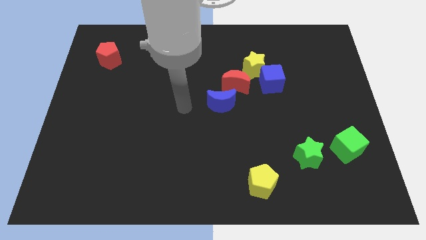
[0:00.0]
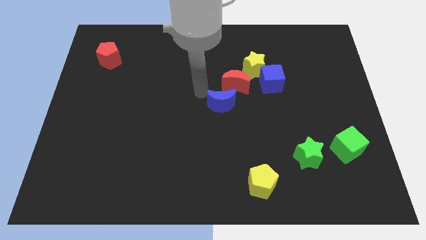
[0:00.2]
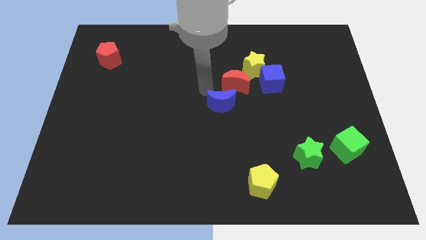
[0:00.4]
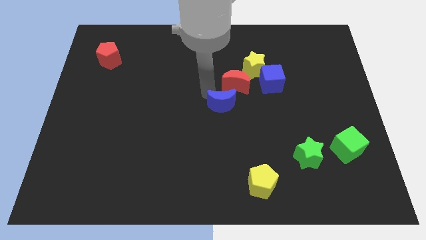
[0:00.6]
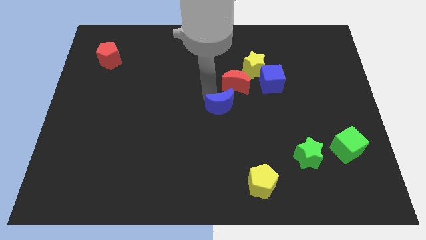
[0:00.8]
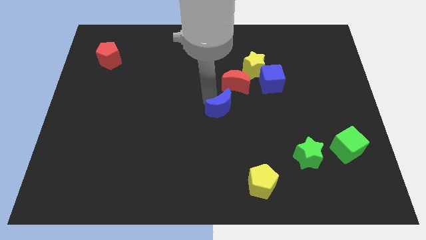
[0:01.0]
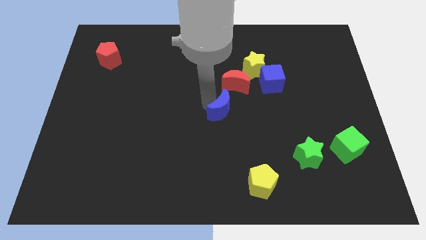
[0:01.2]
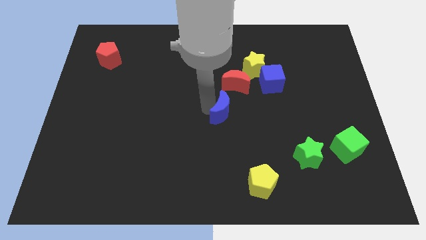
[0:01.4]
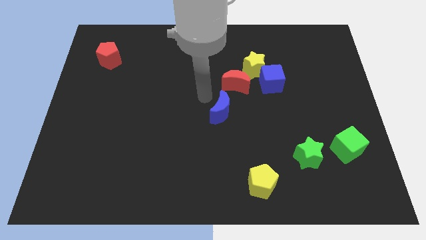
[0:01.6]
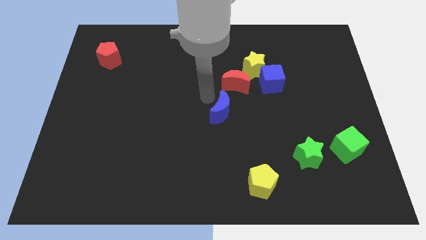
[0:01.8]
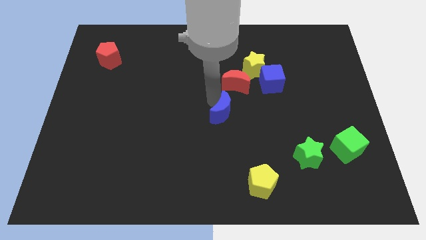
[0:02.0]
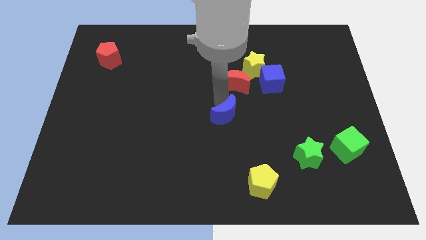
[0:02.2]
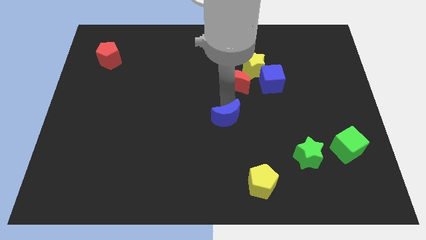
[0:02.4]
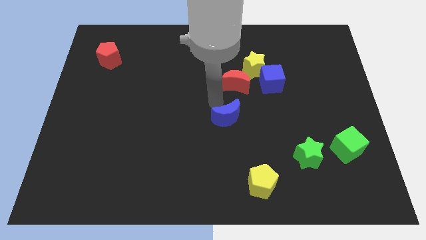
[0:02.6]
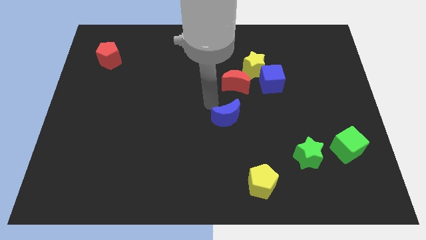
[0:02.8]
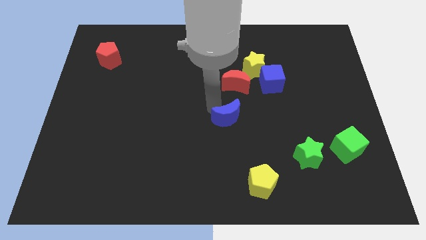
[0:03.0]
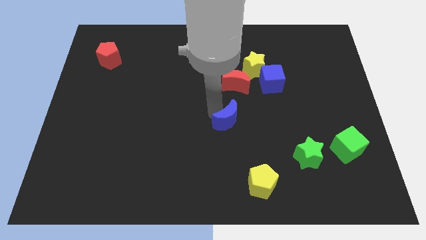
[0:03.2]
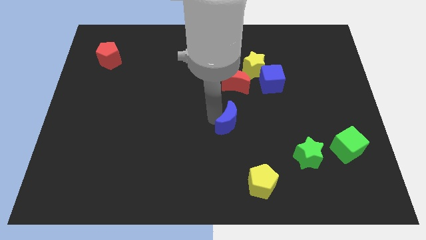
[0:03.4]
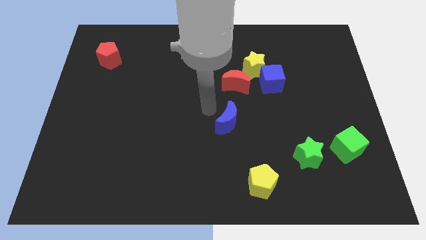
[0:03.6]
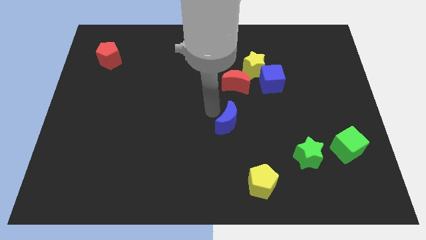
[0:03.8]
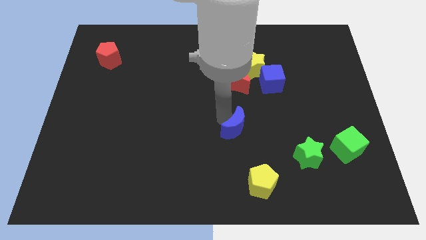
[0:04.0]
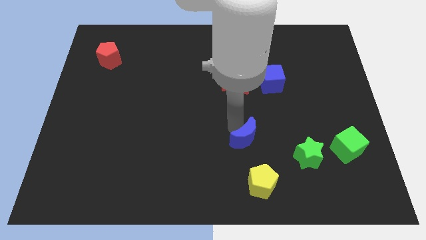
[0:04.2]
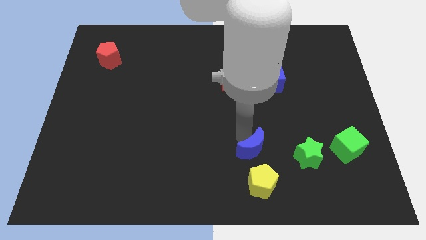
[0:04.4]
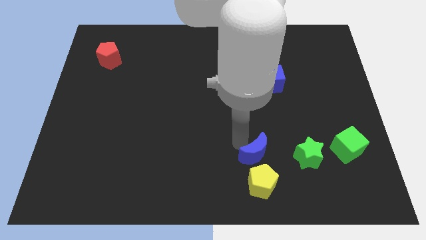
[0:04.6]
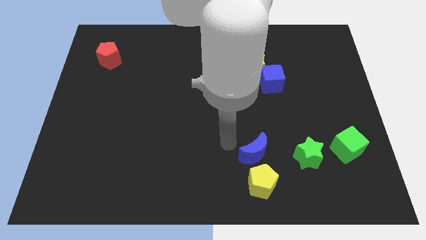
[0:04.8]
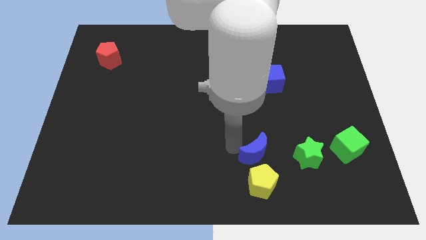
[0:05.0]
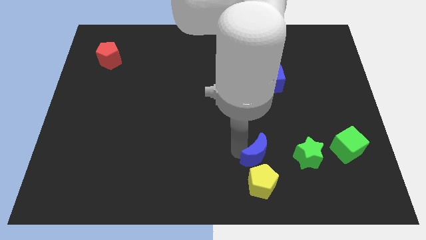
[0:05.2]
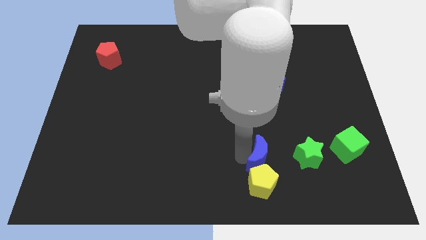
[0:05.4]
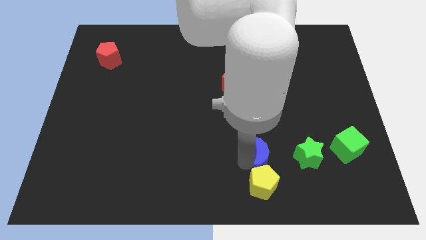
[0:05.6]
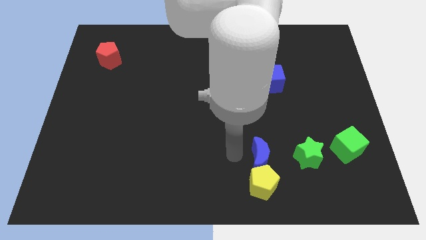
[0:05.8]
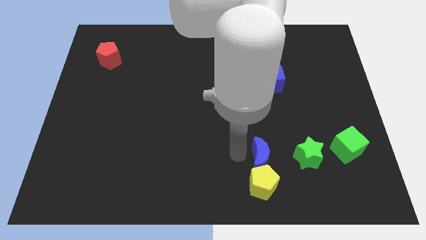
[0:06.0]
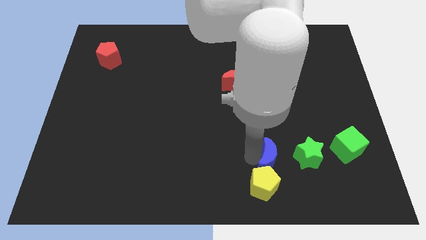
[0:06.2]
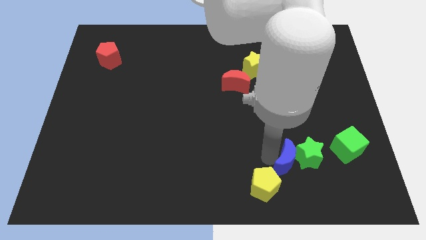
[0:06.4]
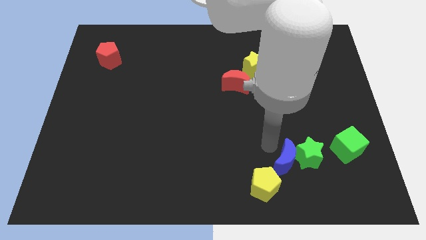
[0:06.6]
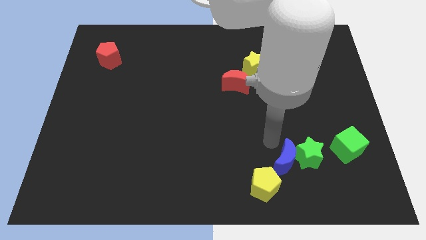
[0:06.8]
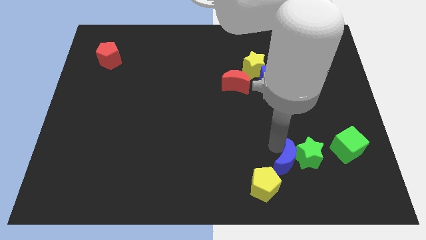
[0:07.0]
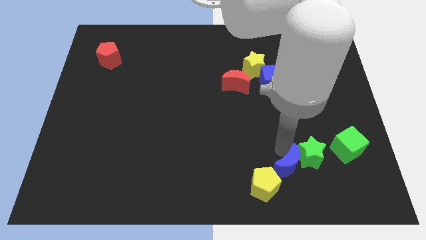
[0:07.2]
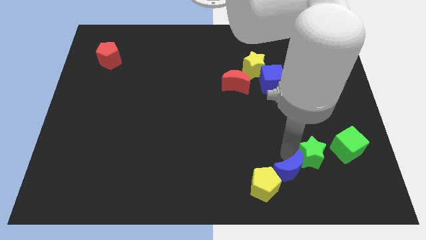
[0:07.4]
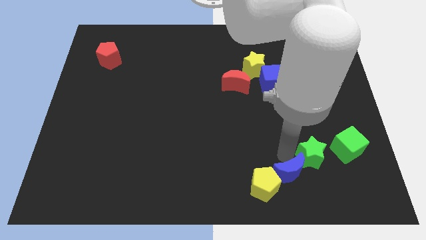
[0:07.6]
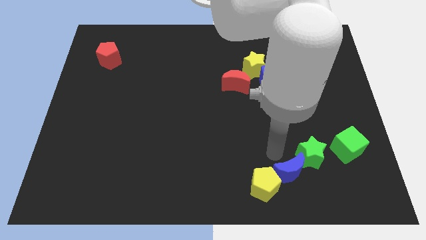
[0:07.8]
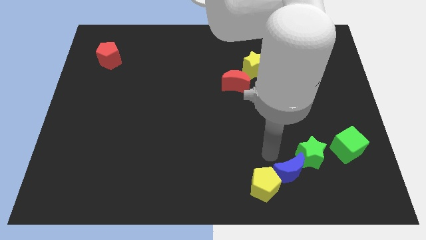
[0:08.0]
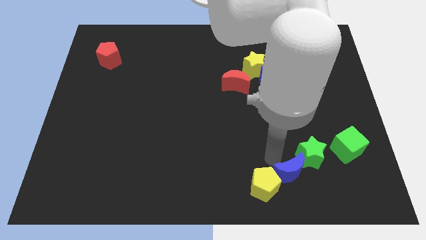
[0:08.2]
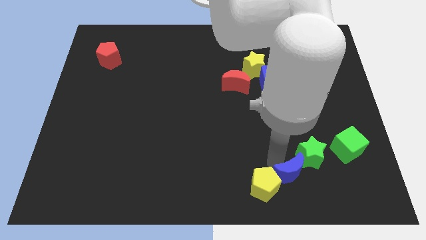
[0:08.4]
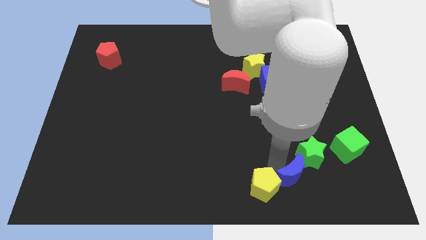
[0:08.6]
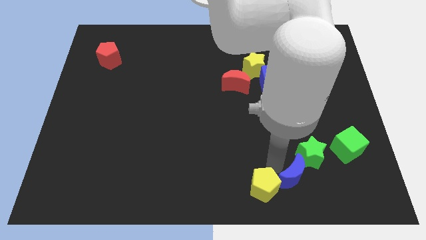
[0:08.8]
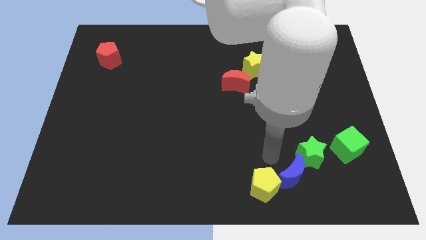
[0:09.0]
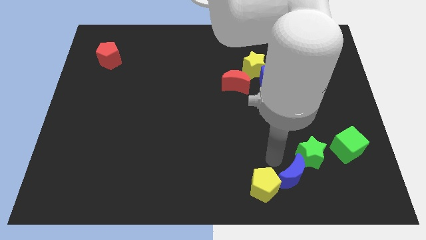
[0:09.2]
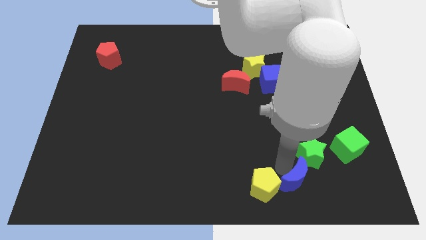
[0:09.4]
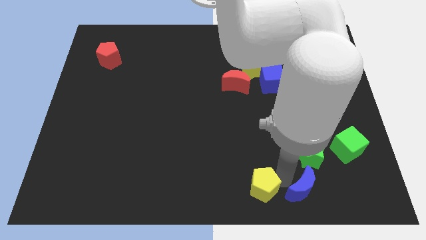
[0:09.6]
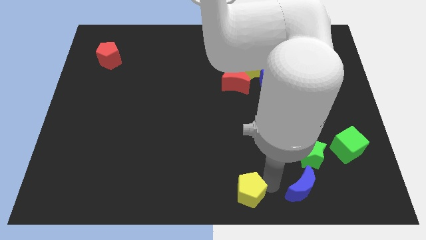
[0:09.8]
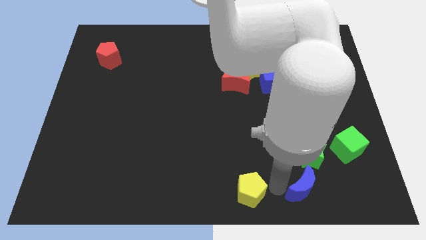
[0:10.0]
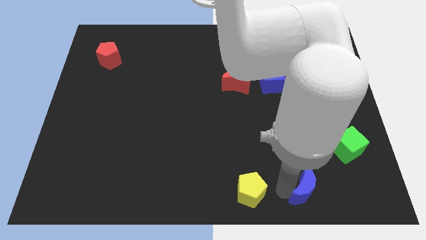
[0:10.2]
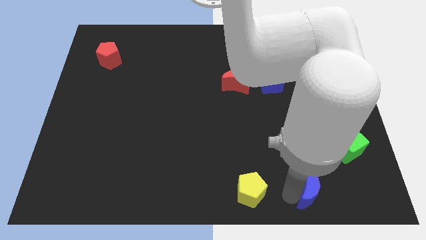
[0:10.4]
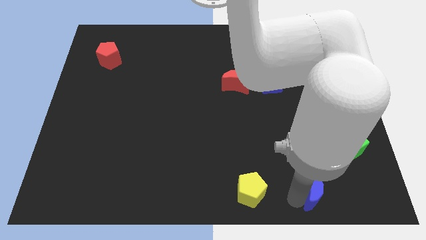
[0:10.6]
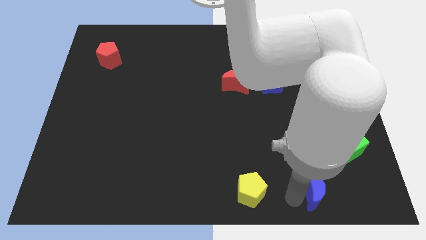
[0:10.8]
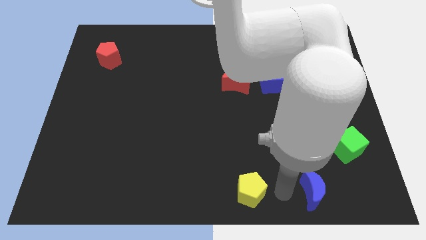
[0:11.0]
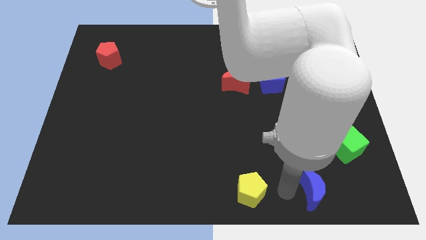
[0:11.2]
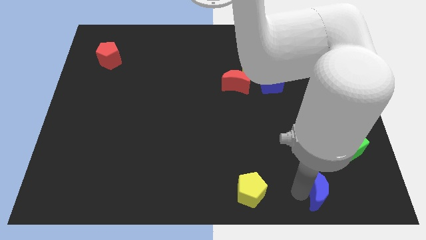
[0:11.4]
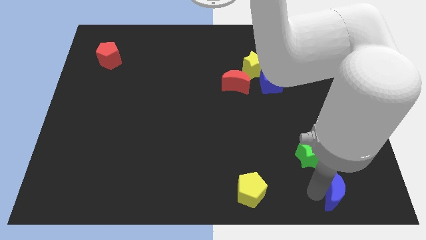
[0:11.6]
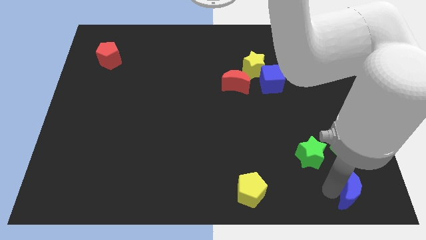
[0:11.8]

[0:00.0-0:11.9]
put the blue moon to the bottom right corner
